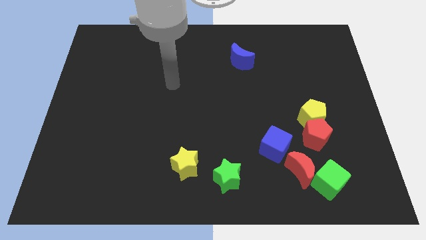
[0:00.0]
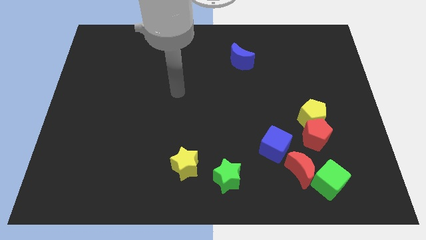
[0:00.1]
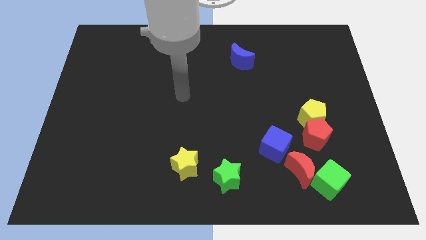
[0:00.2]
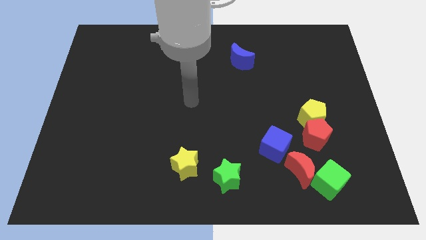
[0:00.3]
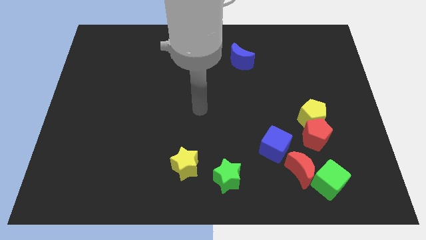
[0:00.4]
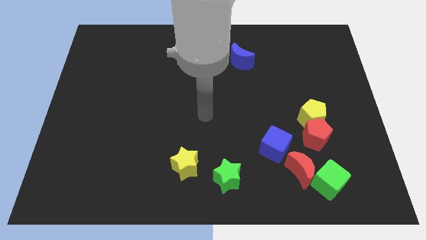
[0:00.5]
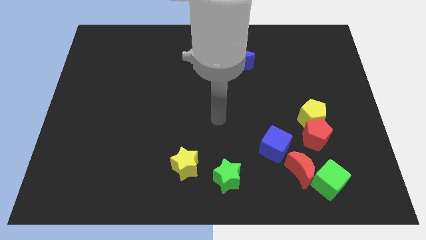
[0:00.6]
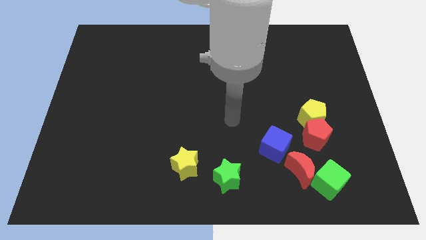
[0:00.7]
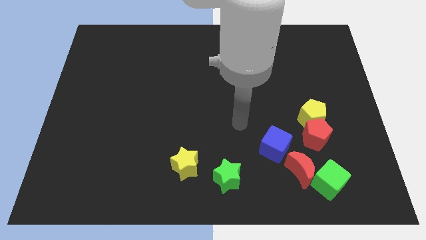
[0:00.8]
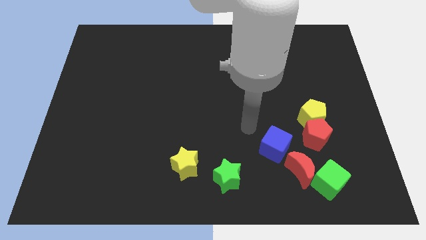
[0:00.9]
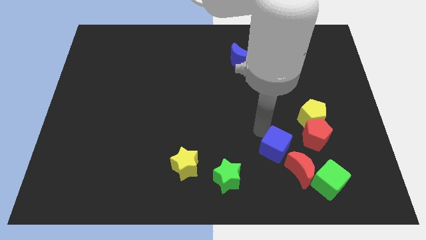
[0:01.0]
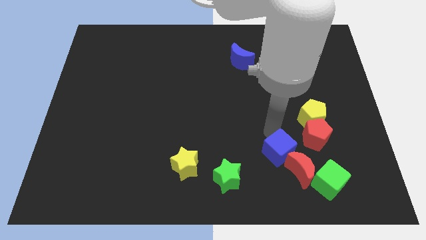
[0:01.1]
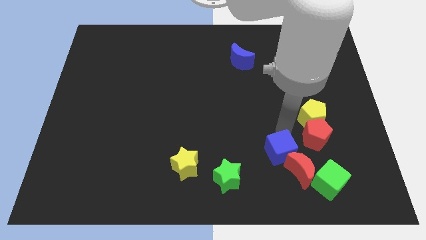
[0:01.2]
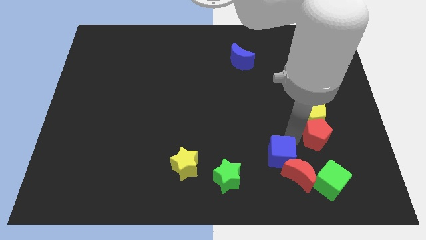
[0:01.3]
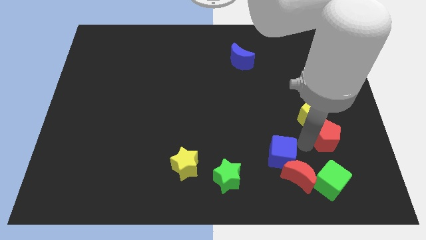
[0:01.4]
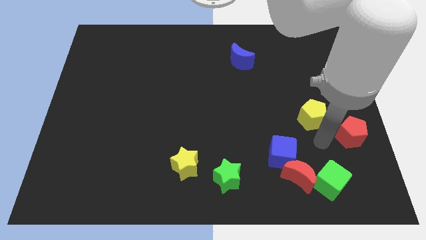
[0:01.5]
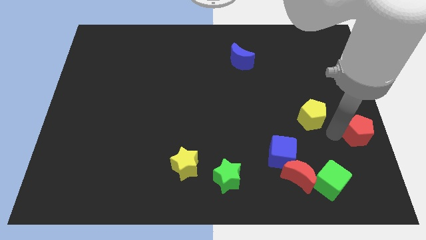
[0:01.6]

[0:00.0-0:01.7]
separate the yellow pentagon from the red pentagon

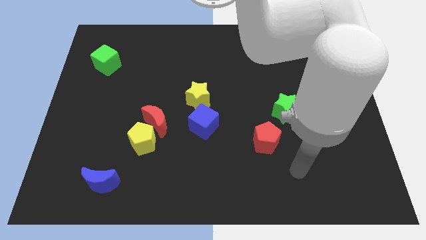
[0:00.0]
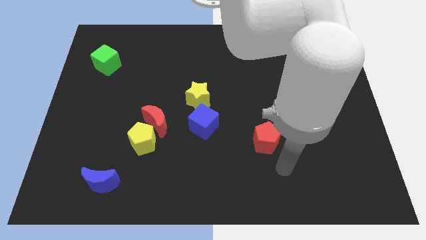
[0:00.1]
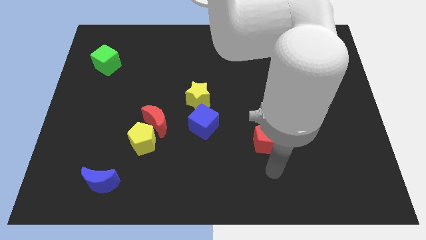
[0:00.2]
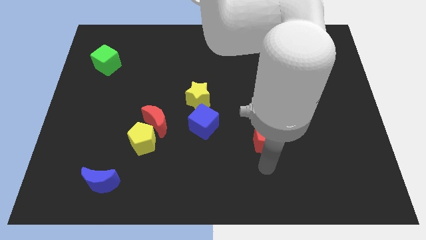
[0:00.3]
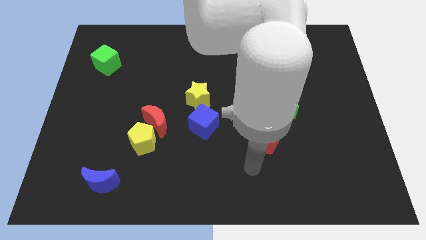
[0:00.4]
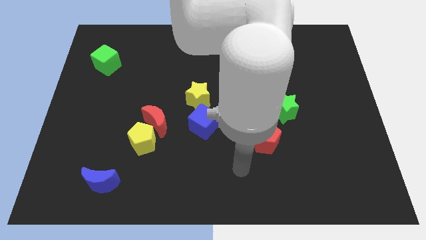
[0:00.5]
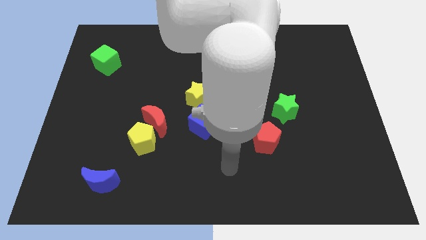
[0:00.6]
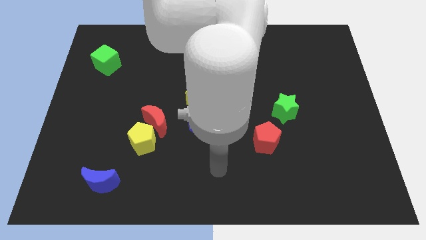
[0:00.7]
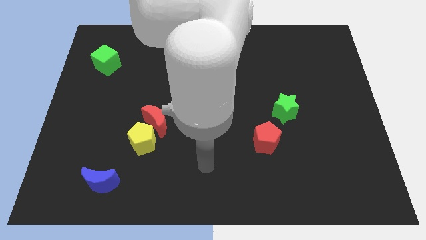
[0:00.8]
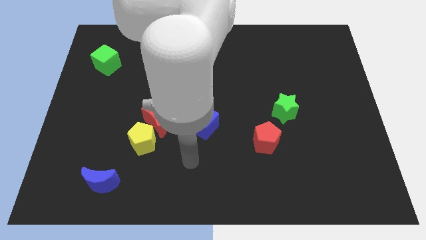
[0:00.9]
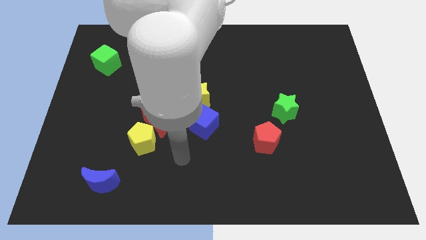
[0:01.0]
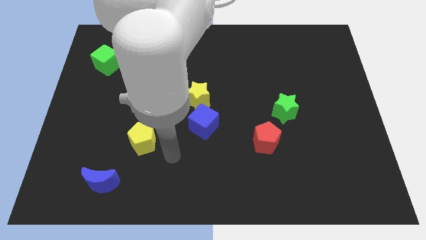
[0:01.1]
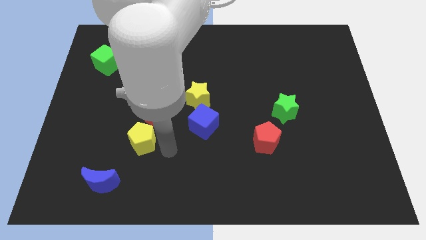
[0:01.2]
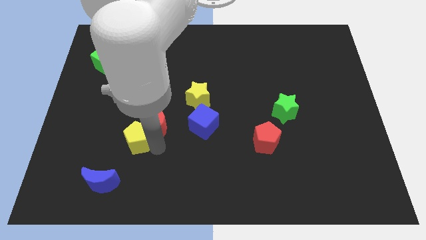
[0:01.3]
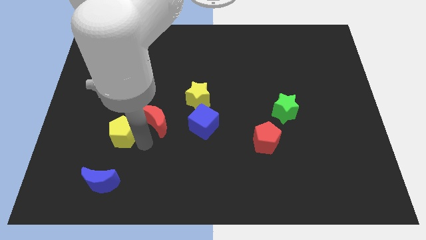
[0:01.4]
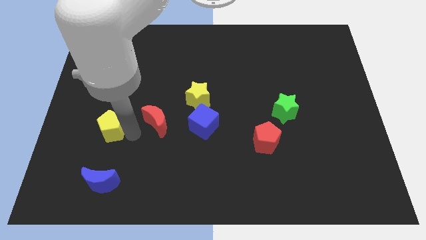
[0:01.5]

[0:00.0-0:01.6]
separate the red moon from the yellow pentagon

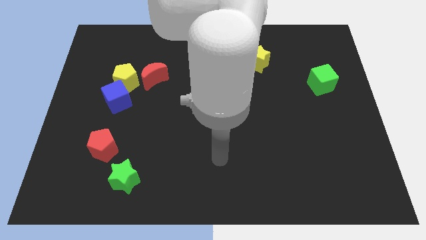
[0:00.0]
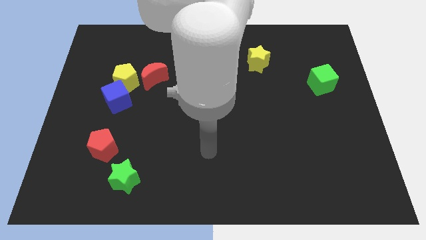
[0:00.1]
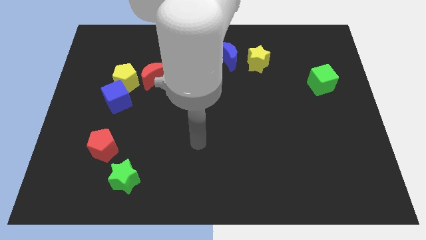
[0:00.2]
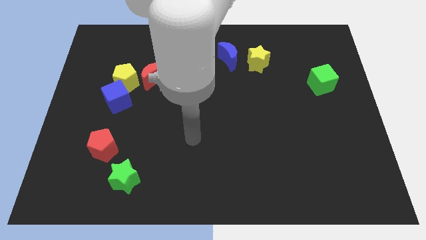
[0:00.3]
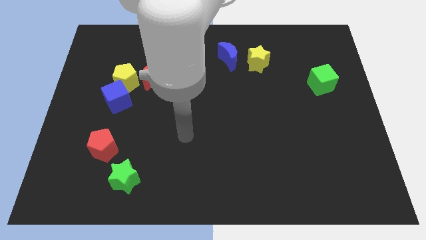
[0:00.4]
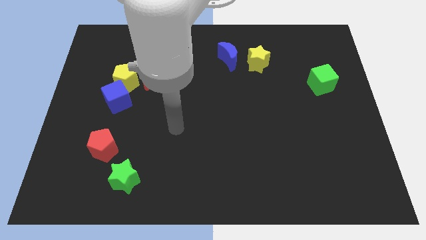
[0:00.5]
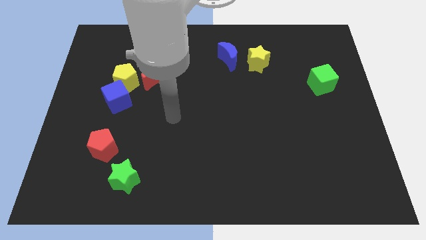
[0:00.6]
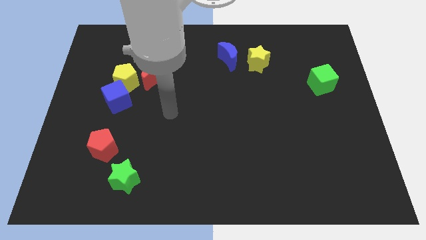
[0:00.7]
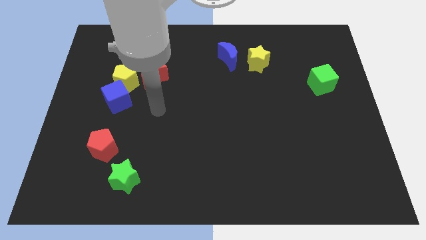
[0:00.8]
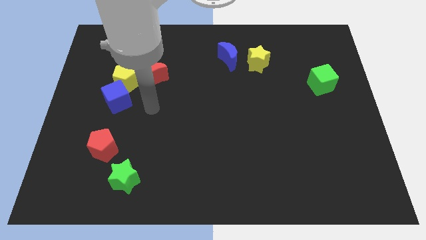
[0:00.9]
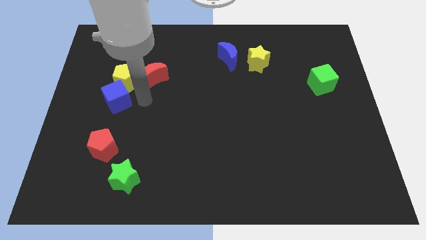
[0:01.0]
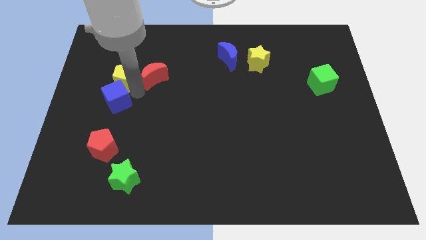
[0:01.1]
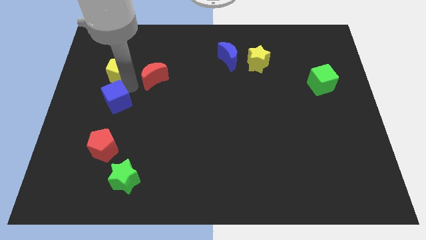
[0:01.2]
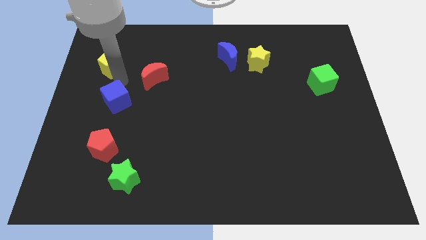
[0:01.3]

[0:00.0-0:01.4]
separate the blue cube from the yellow pentagon

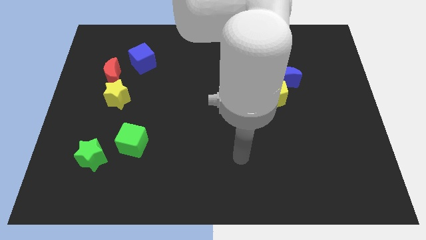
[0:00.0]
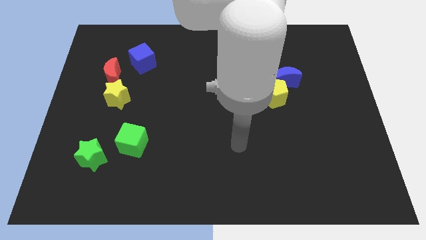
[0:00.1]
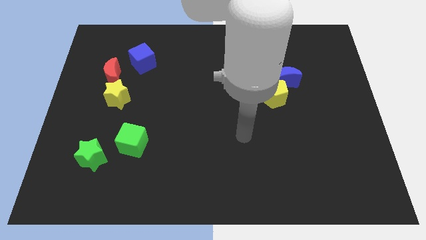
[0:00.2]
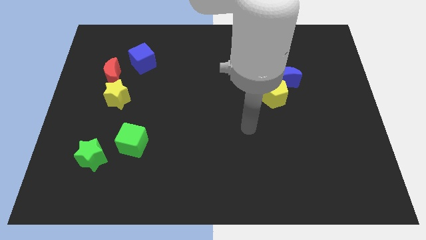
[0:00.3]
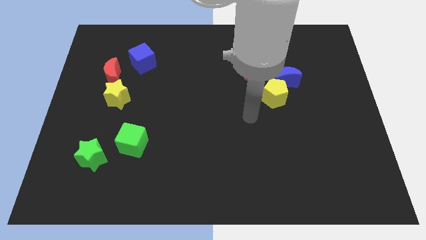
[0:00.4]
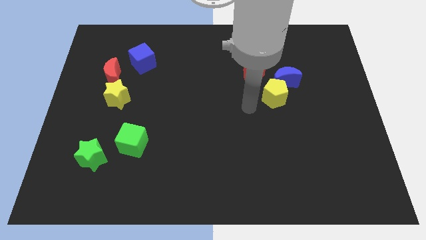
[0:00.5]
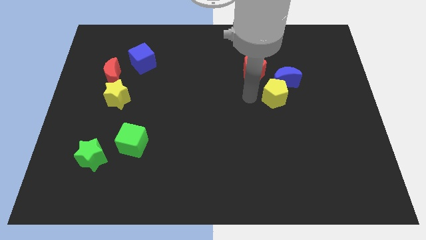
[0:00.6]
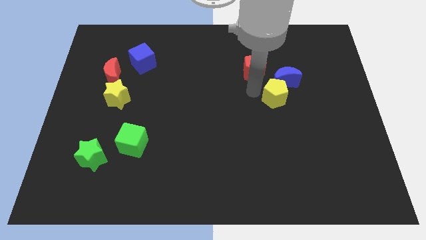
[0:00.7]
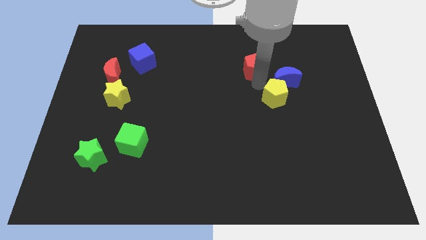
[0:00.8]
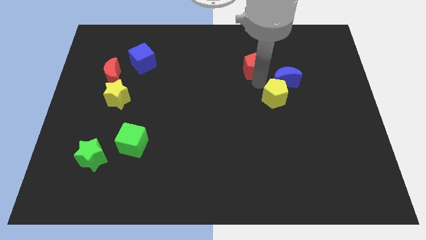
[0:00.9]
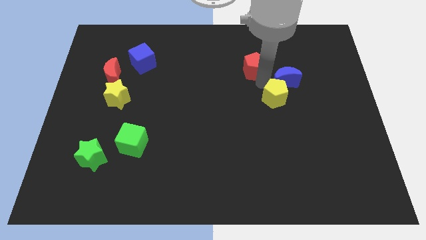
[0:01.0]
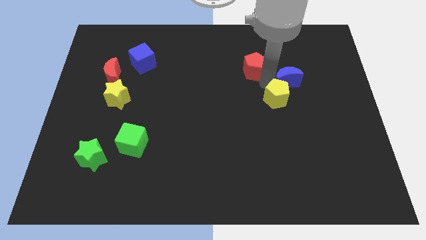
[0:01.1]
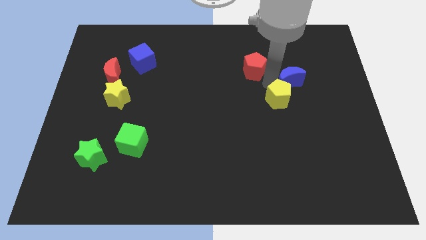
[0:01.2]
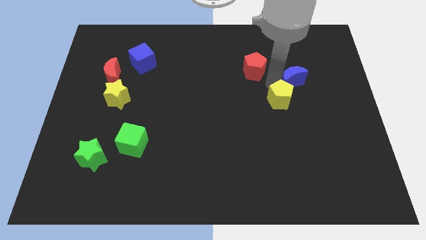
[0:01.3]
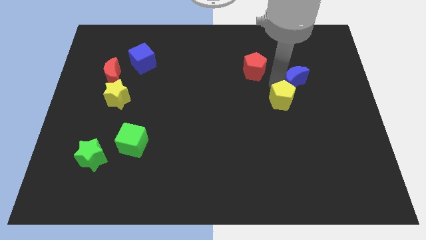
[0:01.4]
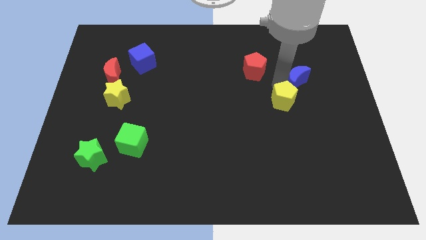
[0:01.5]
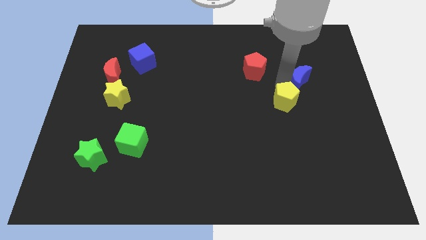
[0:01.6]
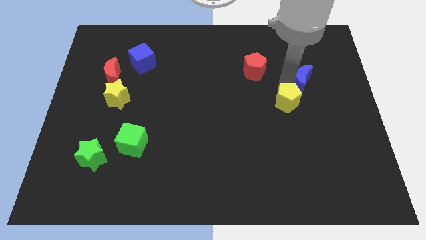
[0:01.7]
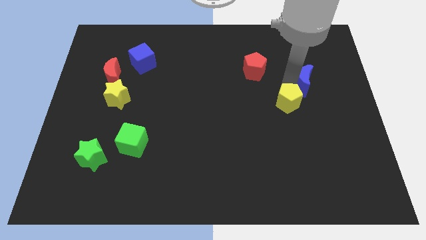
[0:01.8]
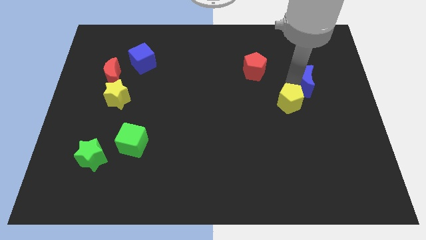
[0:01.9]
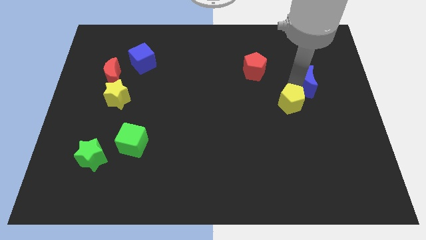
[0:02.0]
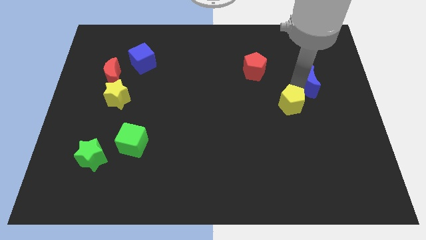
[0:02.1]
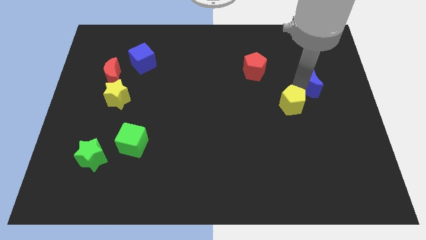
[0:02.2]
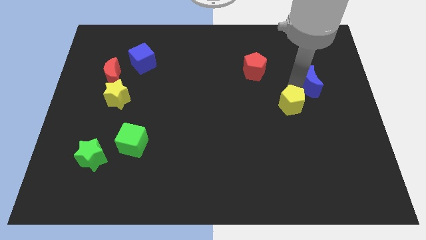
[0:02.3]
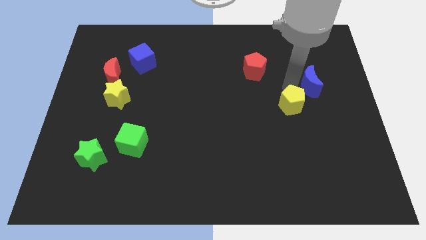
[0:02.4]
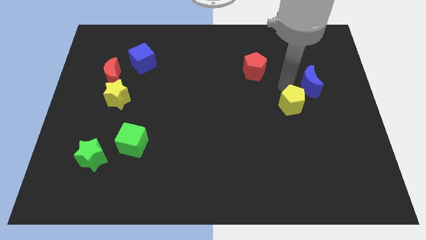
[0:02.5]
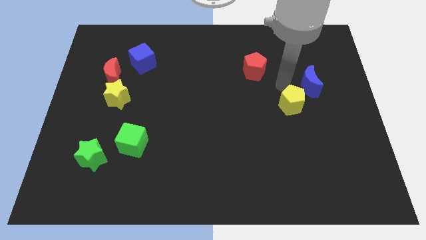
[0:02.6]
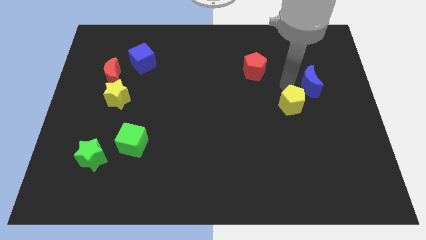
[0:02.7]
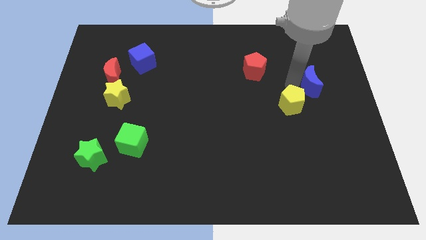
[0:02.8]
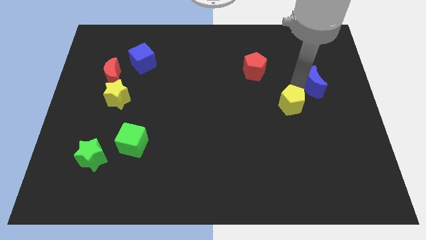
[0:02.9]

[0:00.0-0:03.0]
pull the blue moon apart from the yellow pentagon and red pentagon

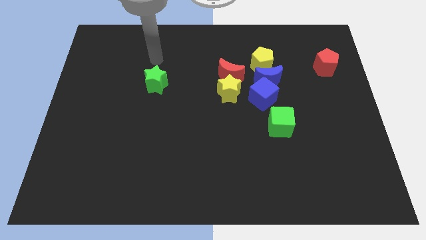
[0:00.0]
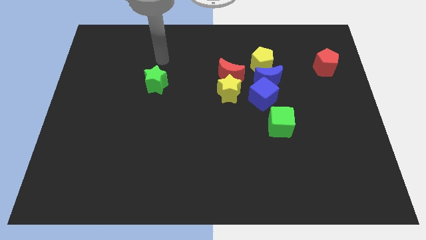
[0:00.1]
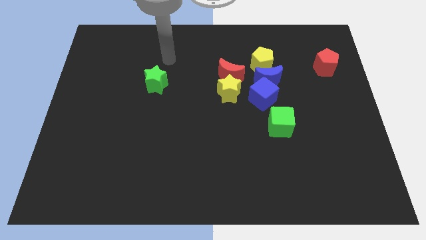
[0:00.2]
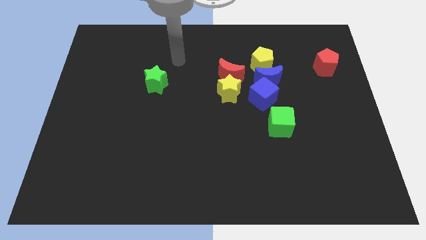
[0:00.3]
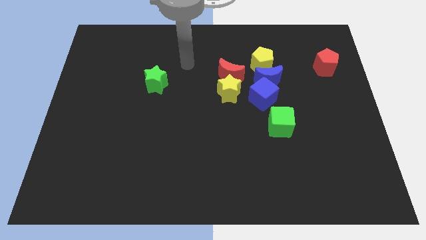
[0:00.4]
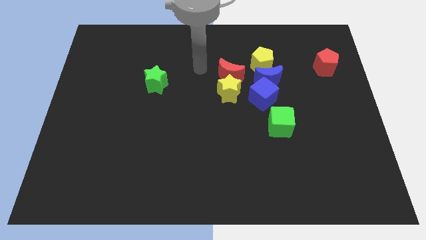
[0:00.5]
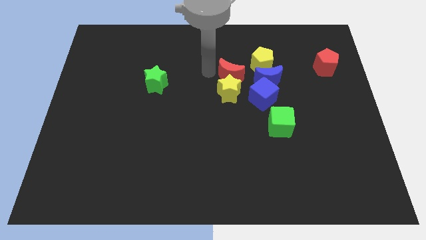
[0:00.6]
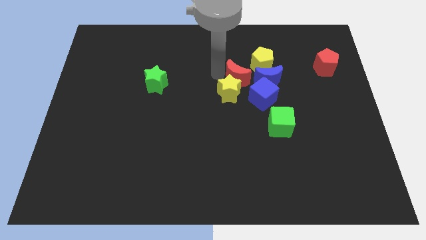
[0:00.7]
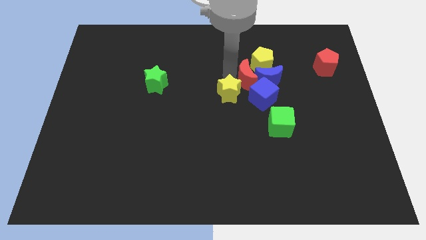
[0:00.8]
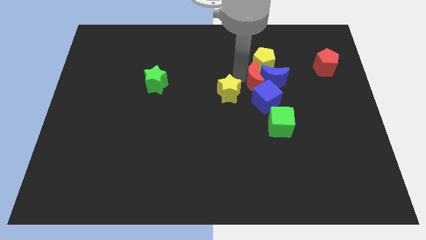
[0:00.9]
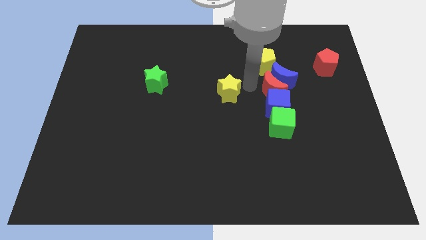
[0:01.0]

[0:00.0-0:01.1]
move the yellow star away from the red moon and blue cube

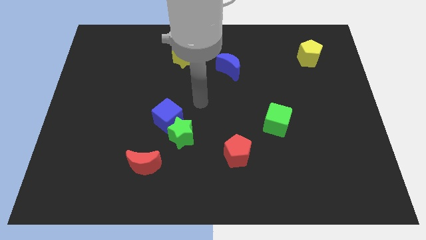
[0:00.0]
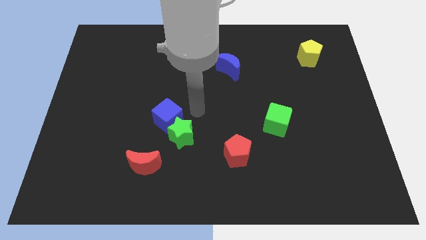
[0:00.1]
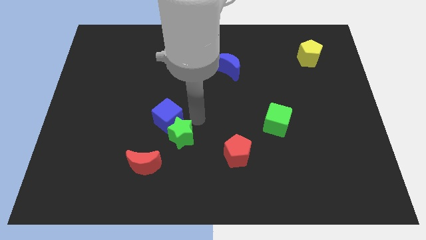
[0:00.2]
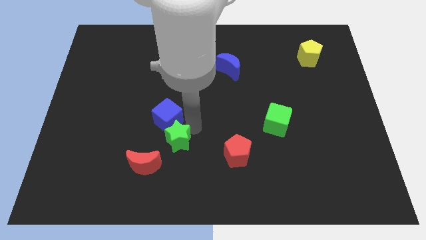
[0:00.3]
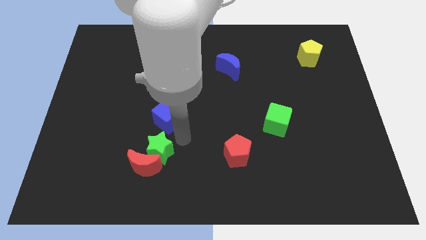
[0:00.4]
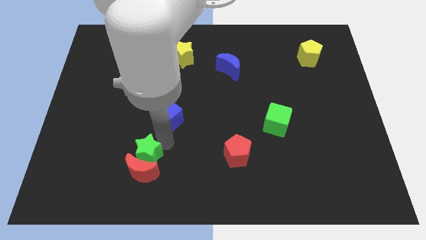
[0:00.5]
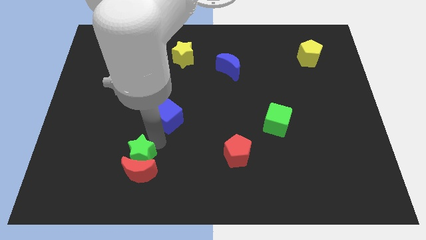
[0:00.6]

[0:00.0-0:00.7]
pull the blue cube apart from the green star
